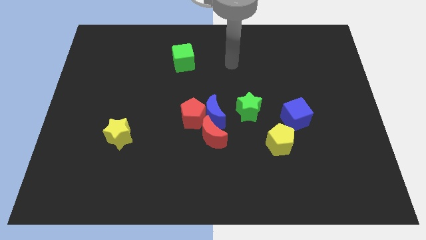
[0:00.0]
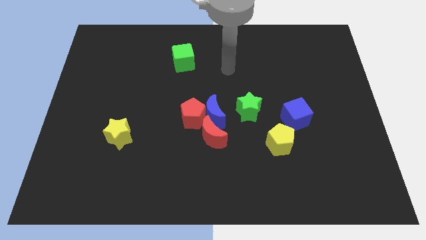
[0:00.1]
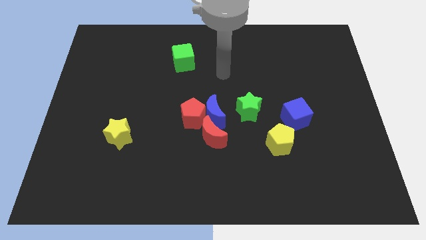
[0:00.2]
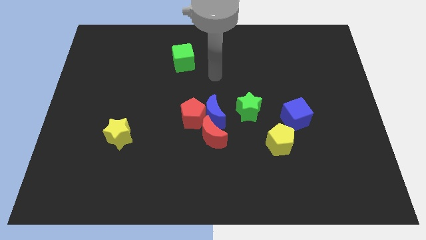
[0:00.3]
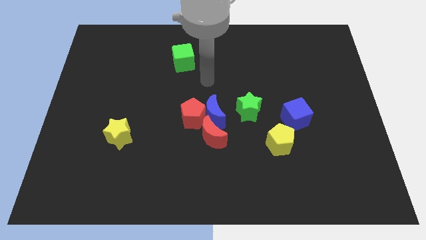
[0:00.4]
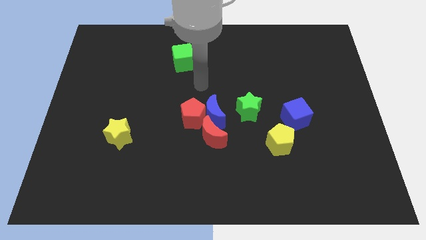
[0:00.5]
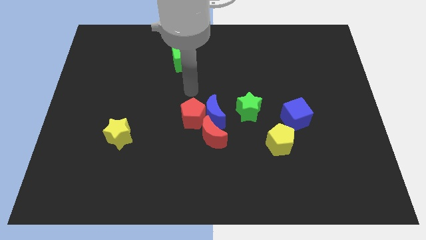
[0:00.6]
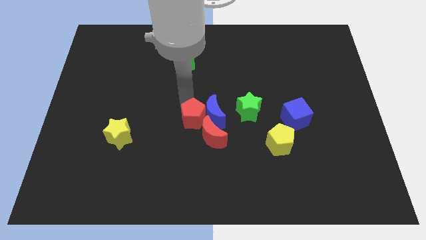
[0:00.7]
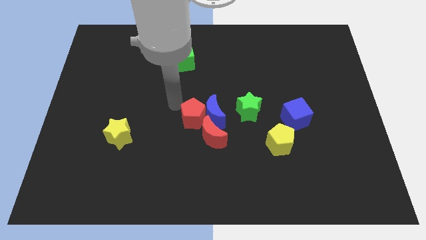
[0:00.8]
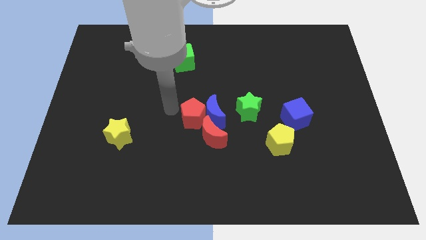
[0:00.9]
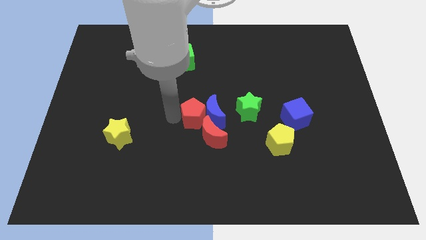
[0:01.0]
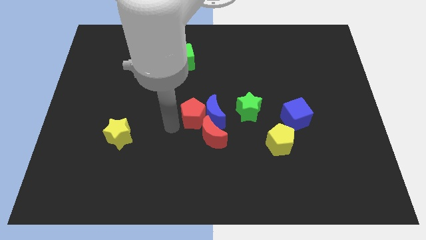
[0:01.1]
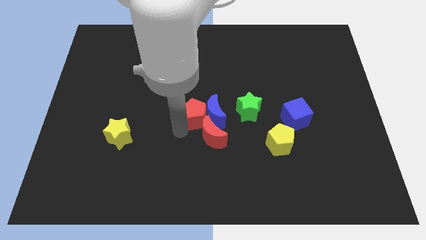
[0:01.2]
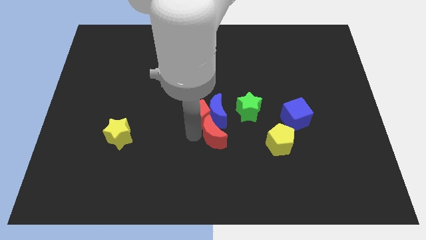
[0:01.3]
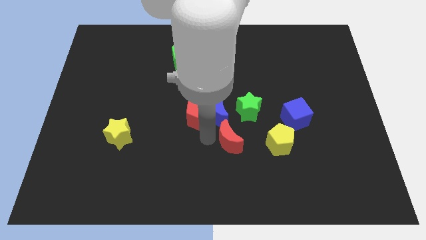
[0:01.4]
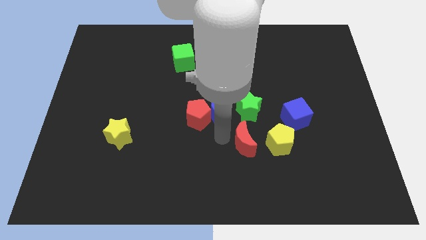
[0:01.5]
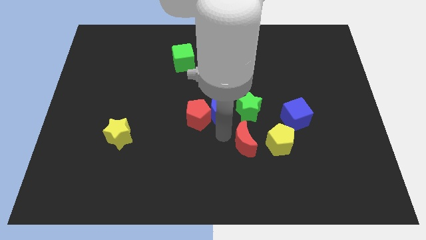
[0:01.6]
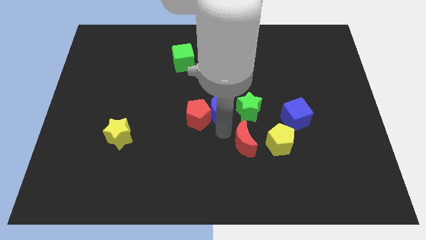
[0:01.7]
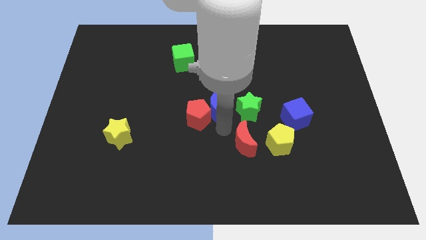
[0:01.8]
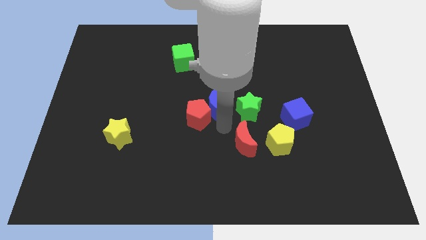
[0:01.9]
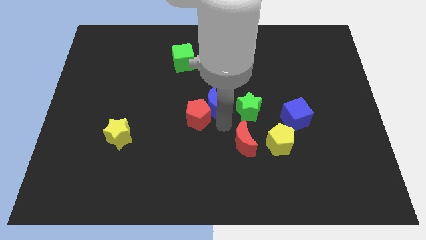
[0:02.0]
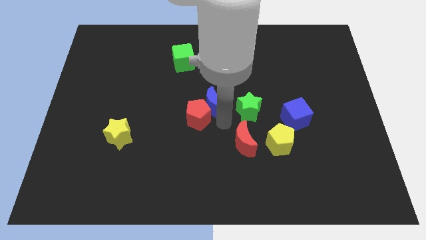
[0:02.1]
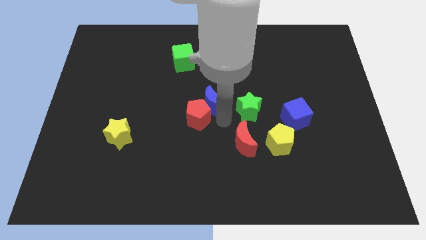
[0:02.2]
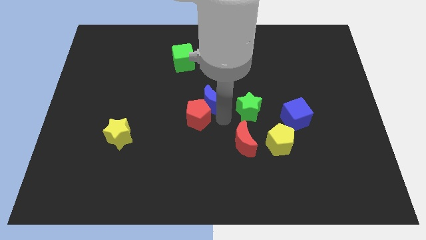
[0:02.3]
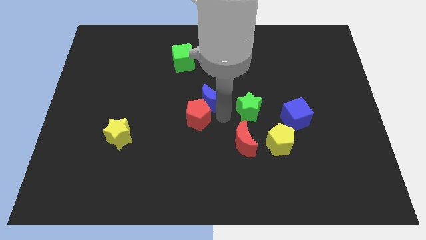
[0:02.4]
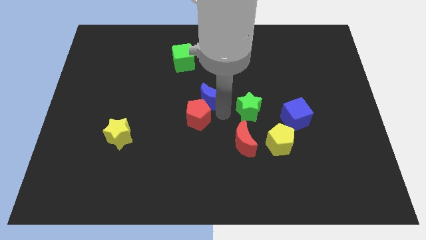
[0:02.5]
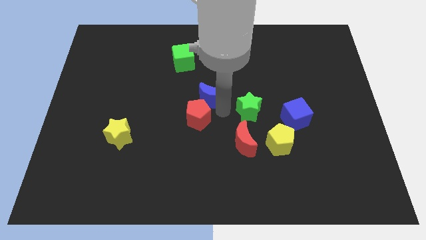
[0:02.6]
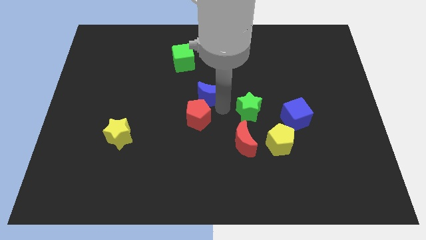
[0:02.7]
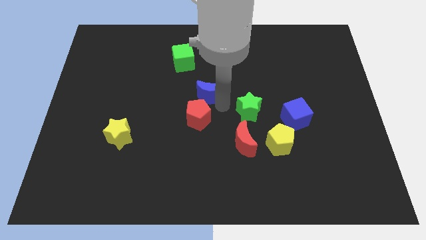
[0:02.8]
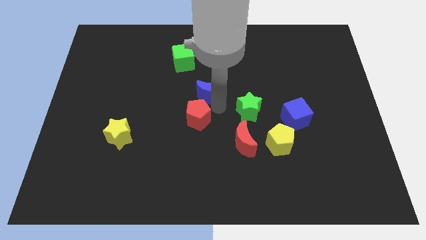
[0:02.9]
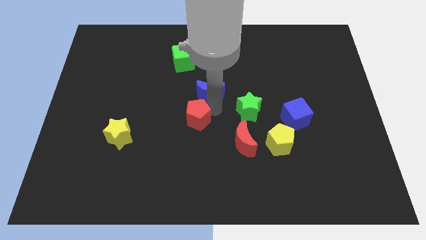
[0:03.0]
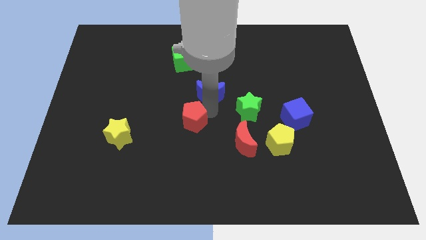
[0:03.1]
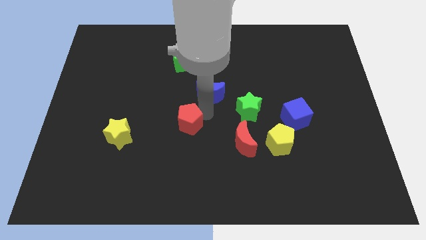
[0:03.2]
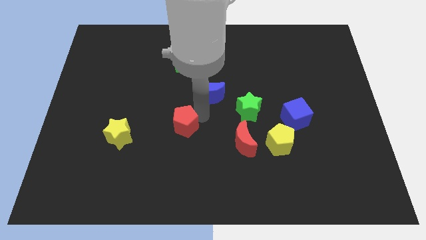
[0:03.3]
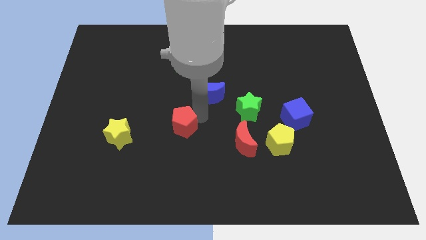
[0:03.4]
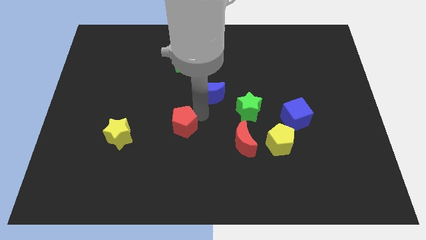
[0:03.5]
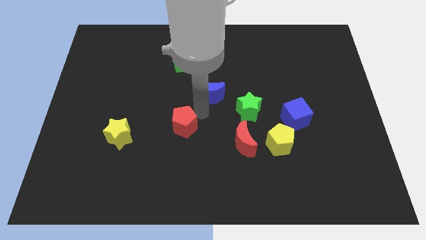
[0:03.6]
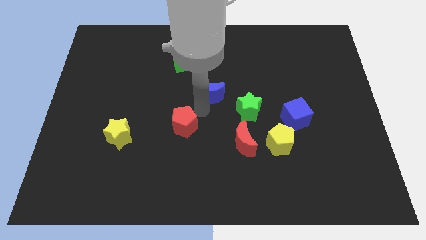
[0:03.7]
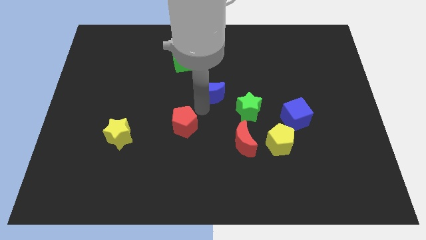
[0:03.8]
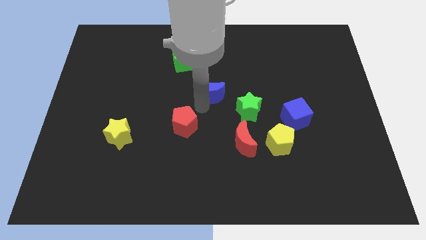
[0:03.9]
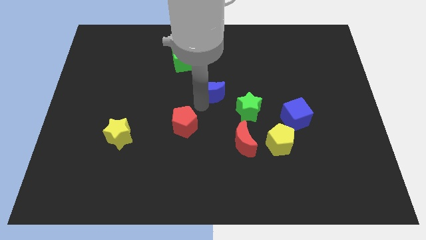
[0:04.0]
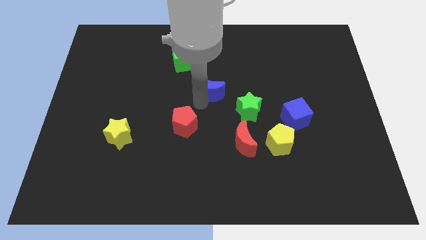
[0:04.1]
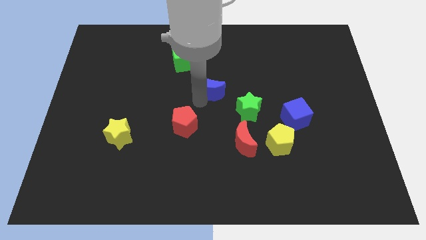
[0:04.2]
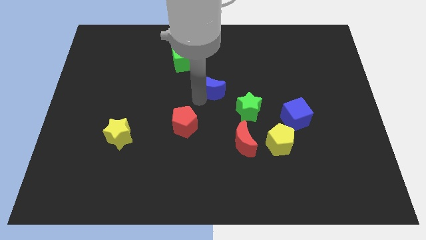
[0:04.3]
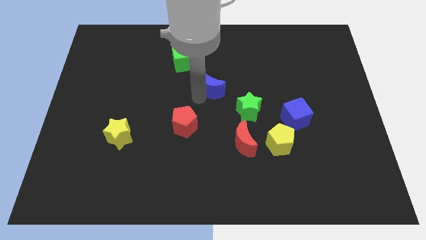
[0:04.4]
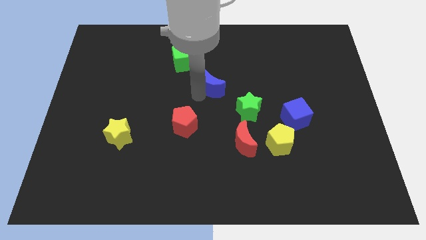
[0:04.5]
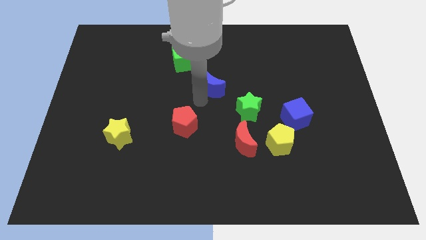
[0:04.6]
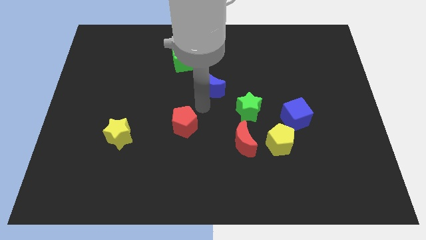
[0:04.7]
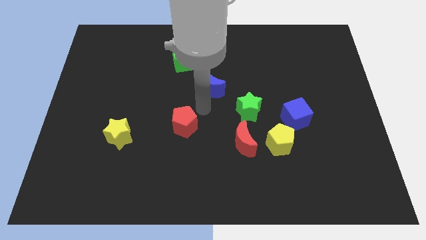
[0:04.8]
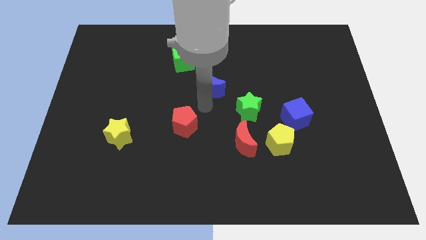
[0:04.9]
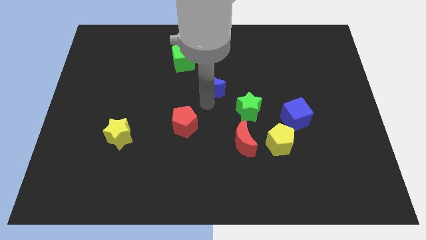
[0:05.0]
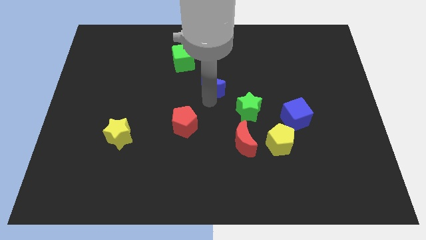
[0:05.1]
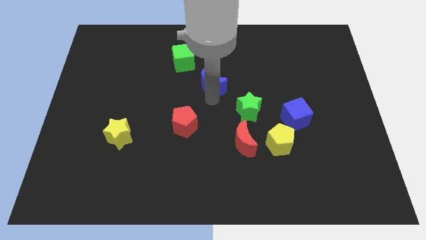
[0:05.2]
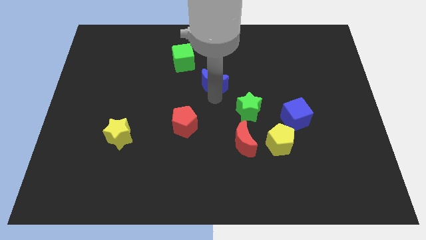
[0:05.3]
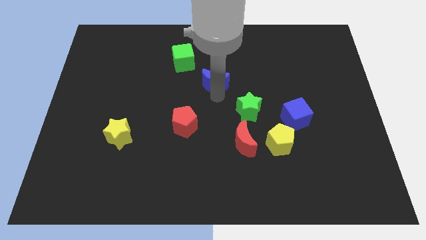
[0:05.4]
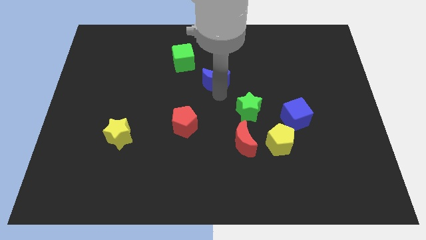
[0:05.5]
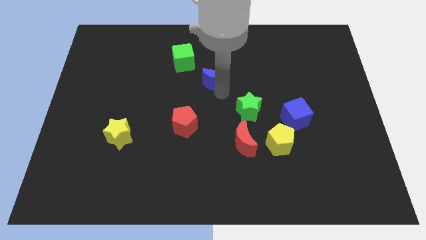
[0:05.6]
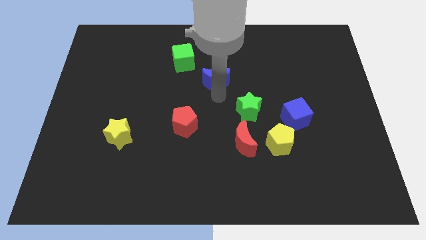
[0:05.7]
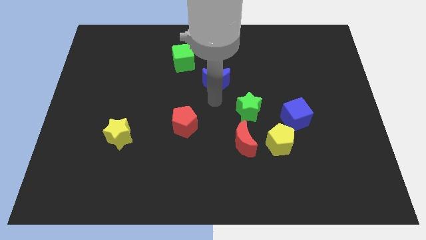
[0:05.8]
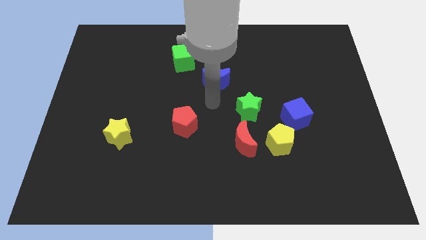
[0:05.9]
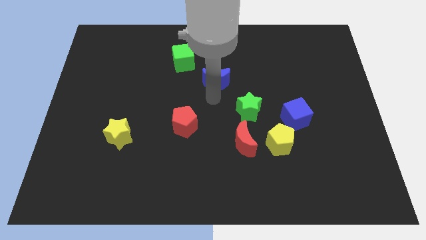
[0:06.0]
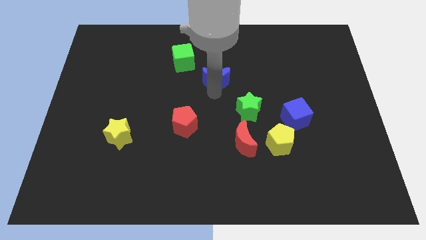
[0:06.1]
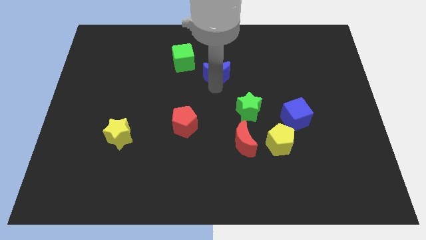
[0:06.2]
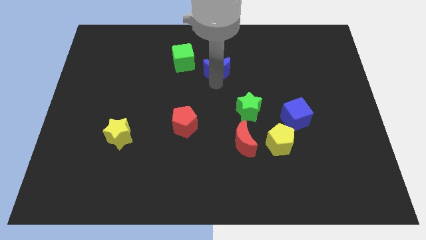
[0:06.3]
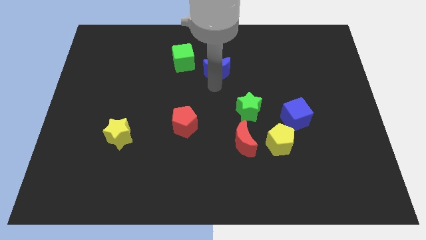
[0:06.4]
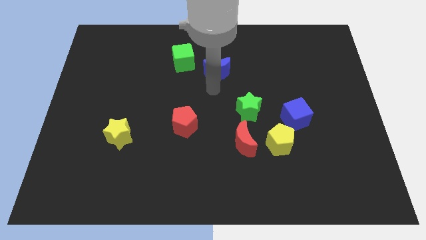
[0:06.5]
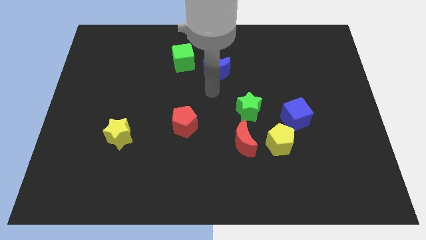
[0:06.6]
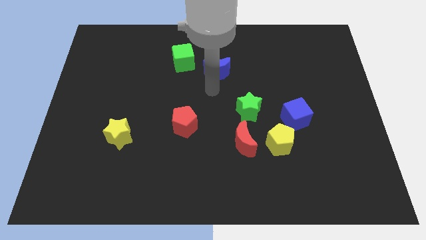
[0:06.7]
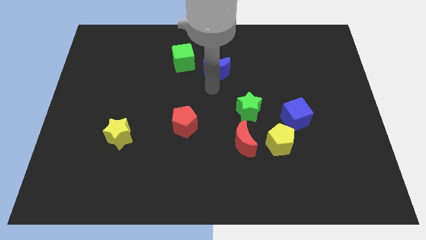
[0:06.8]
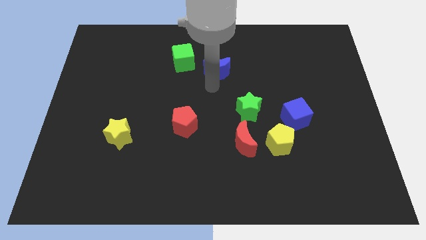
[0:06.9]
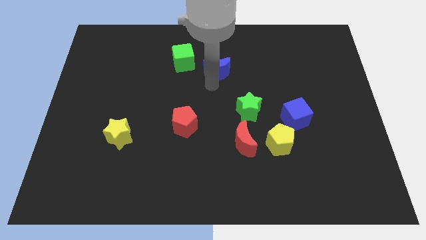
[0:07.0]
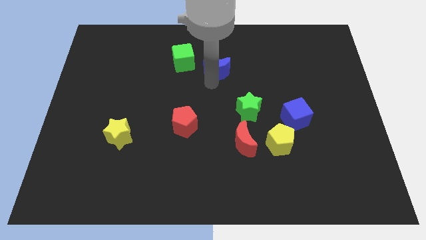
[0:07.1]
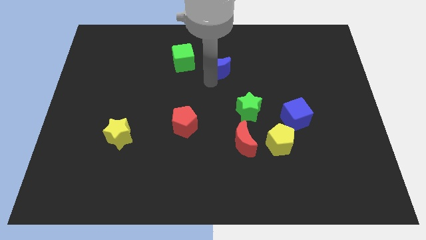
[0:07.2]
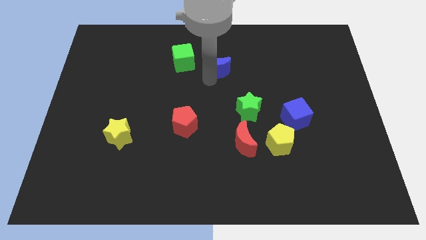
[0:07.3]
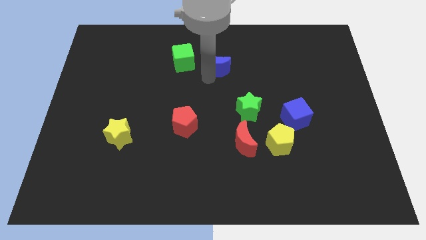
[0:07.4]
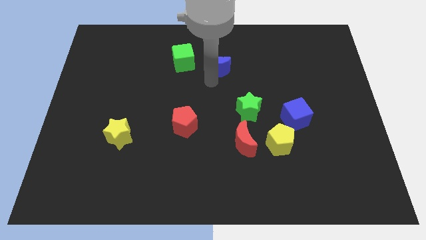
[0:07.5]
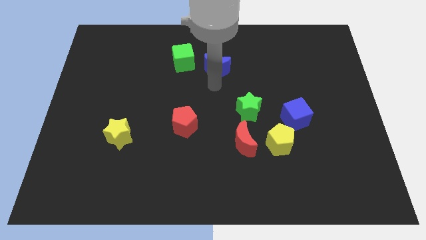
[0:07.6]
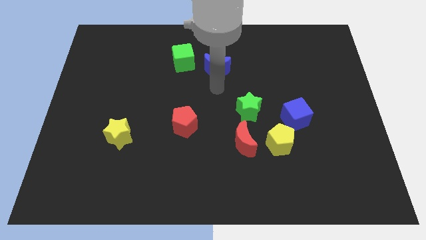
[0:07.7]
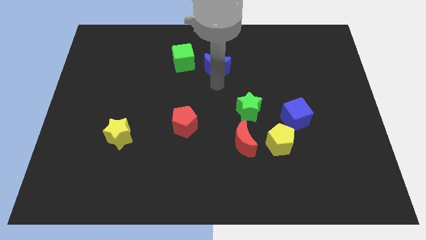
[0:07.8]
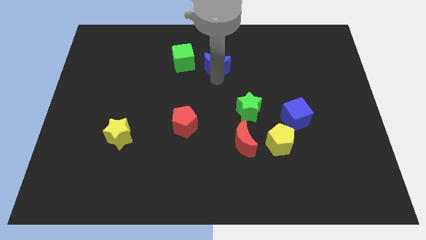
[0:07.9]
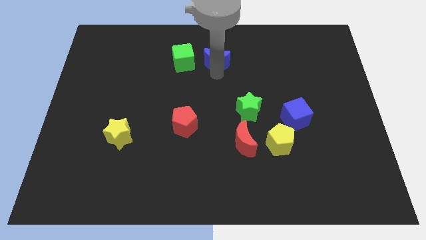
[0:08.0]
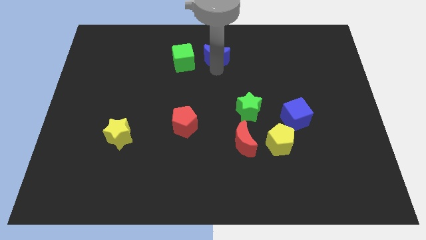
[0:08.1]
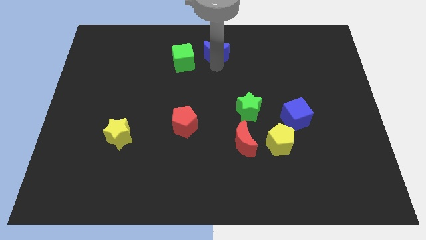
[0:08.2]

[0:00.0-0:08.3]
move the blue moon to the top side
